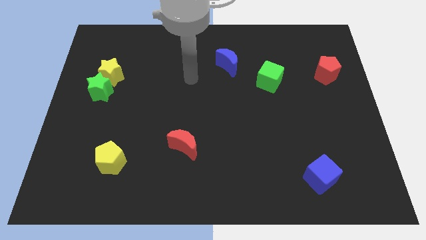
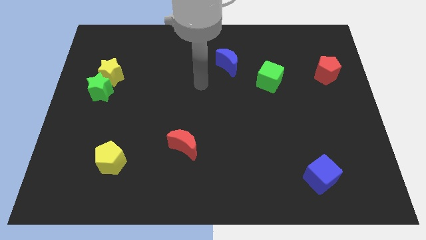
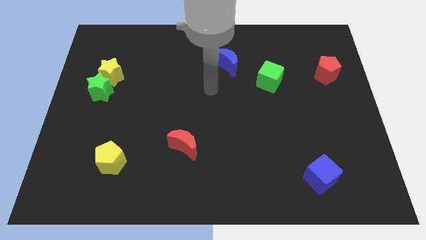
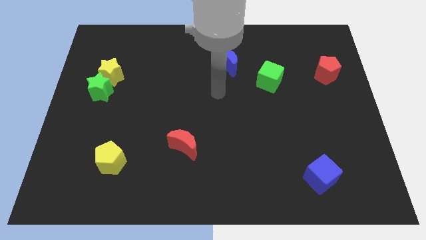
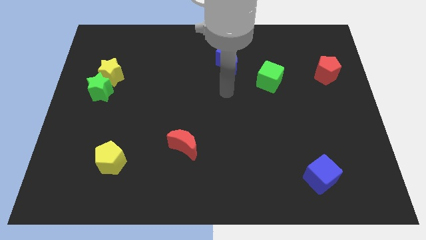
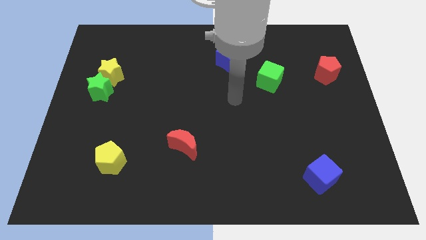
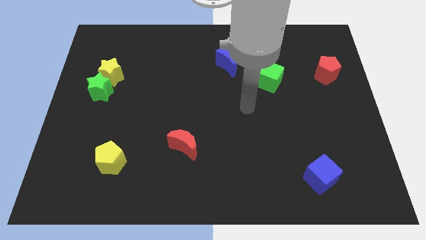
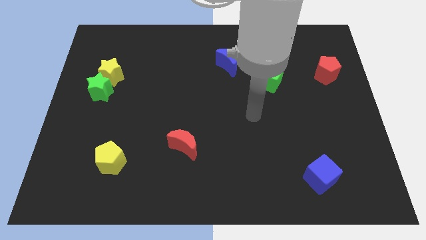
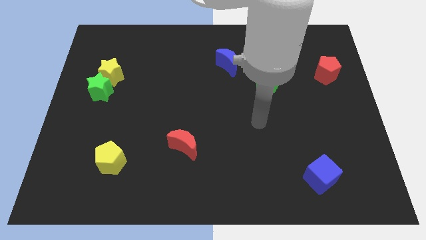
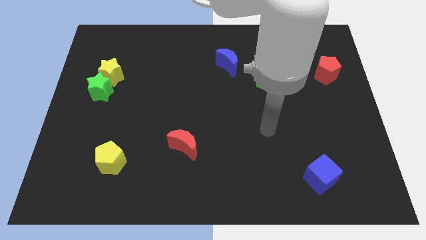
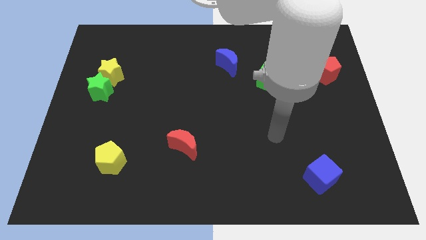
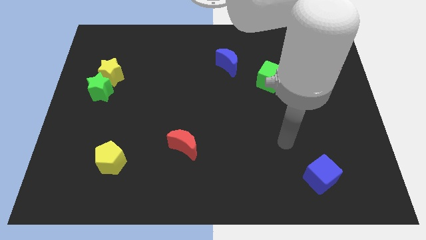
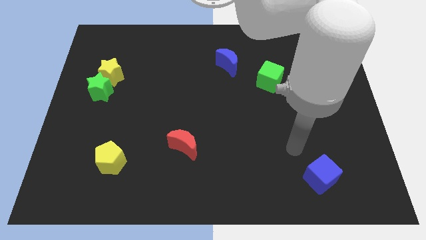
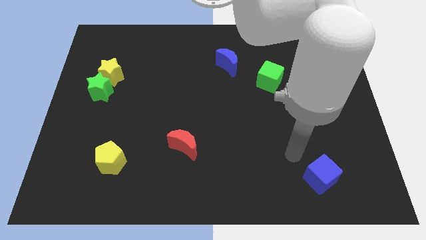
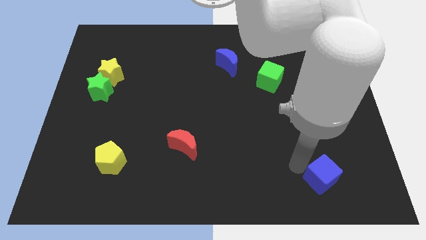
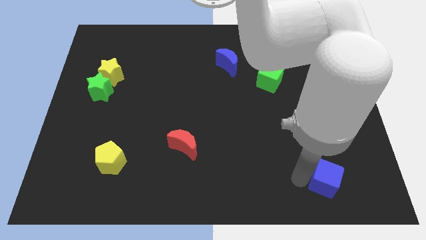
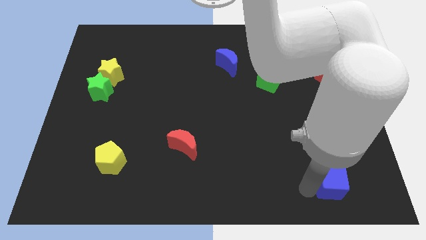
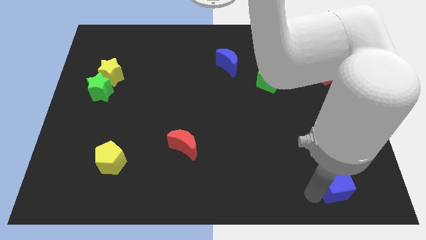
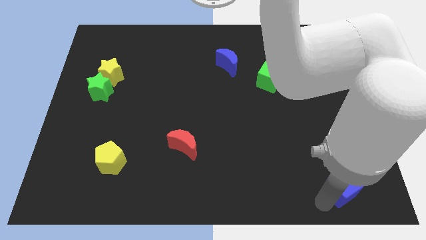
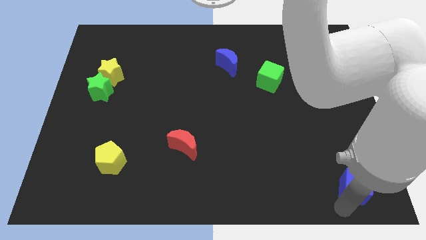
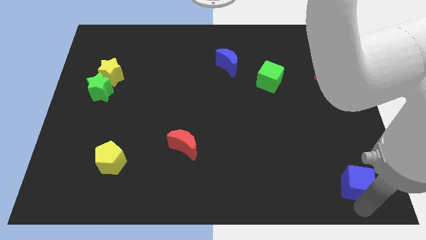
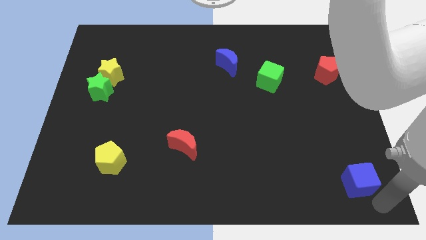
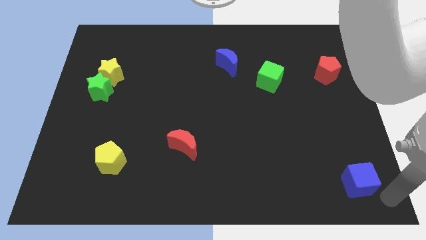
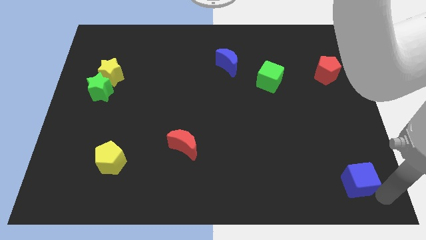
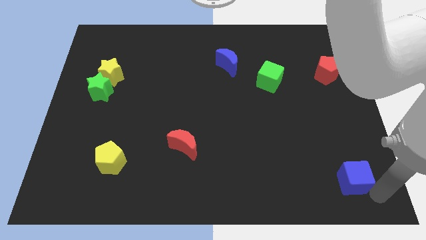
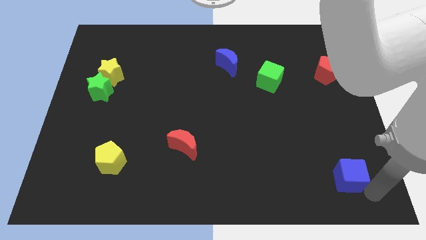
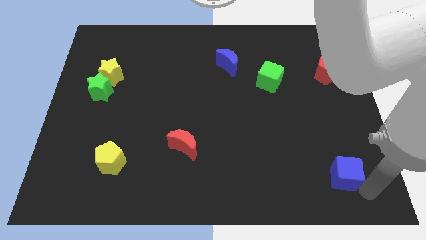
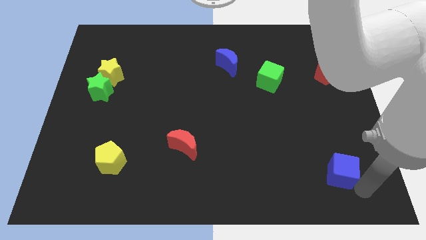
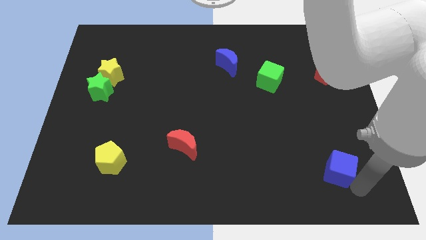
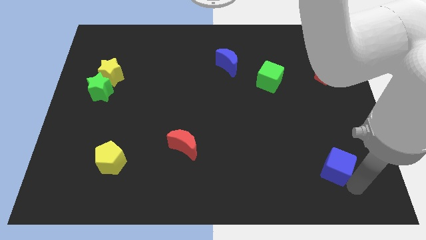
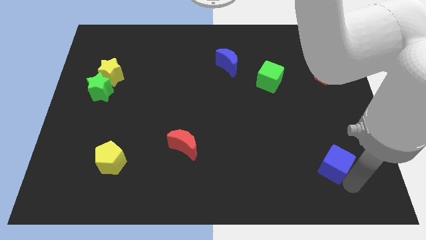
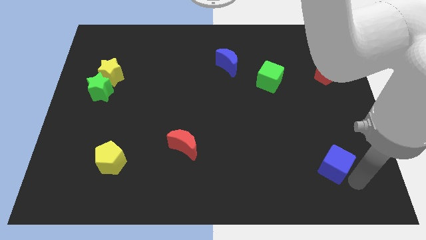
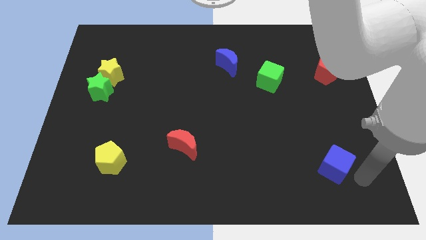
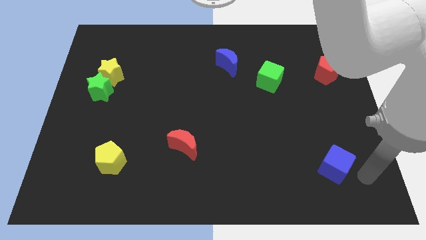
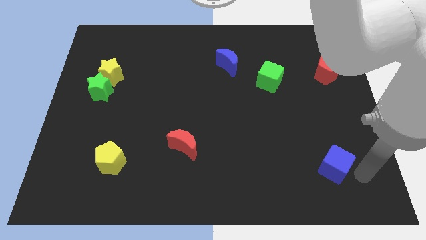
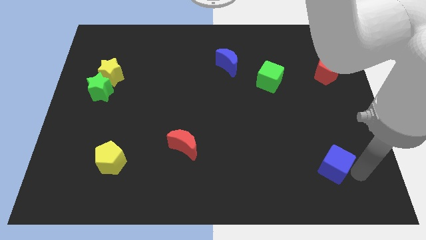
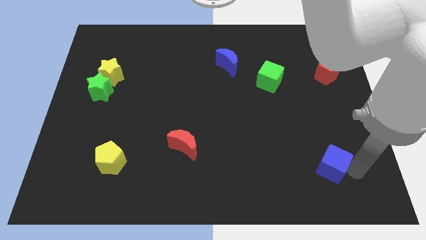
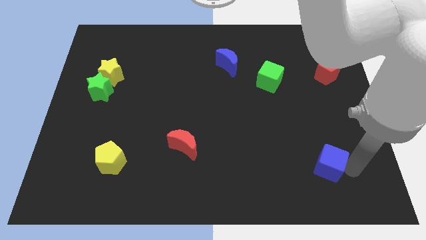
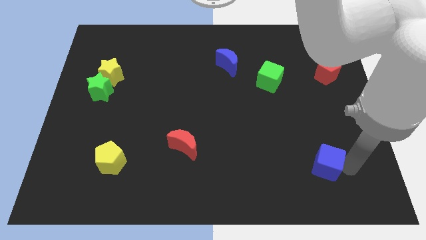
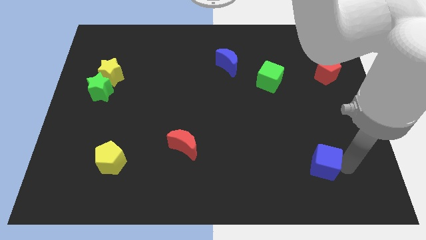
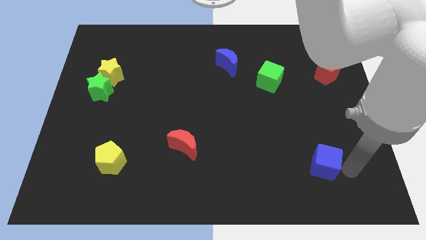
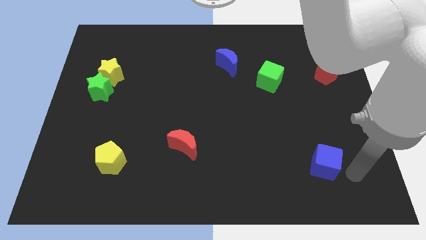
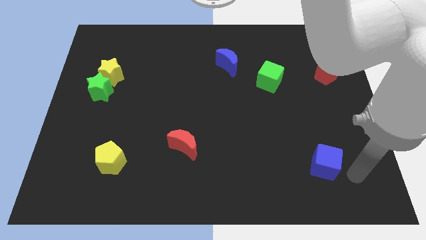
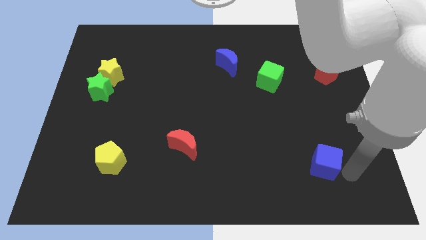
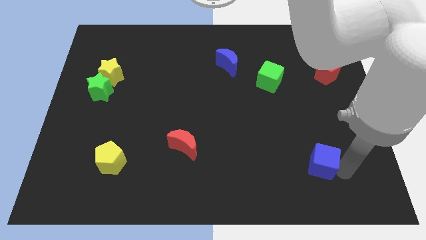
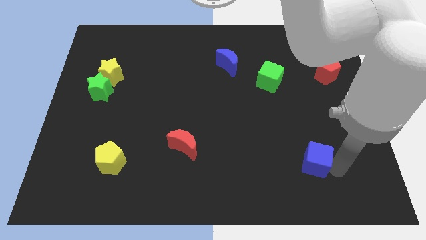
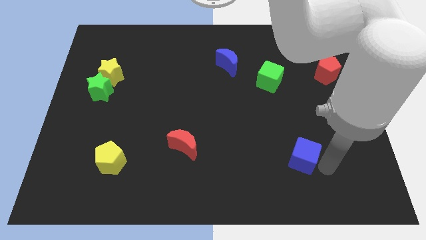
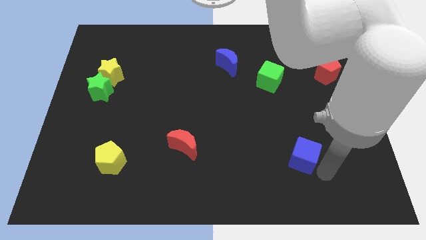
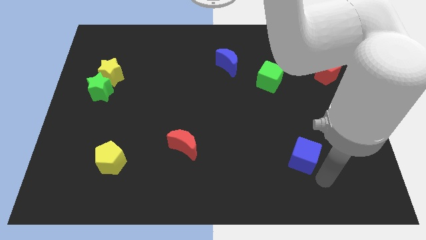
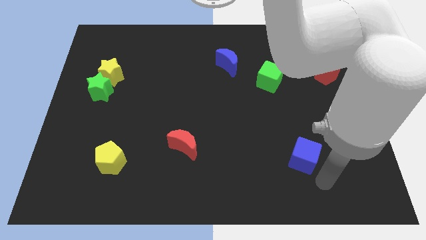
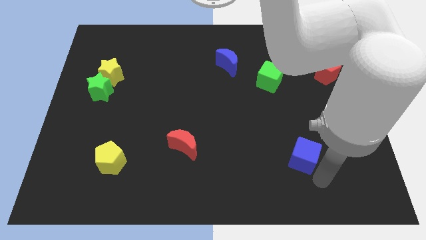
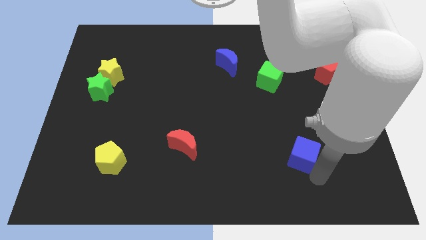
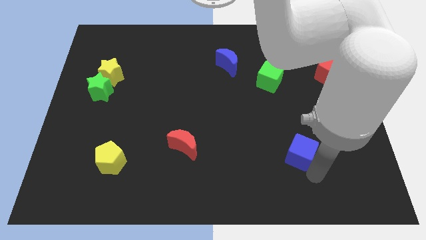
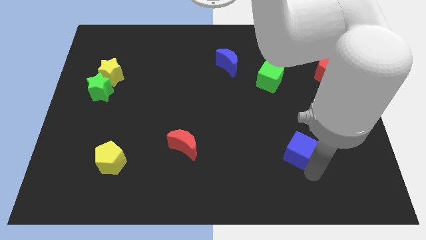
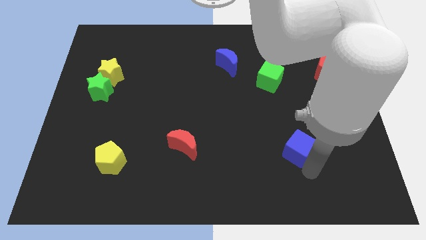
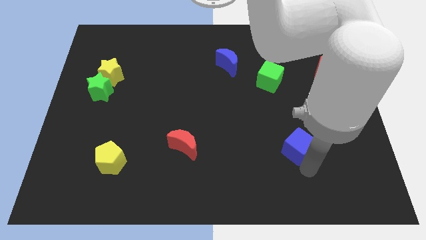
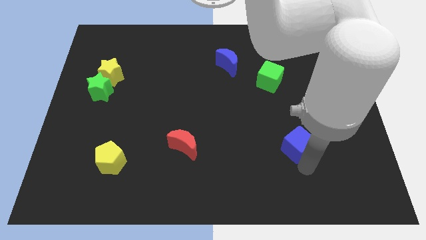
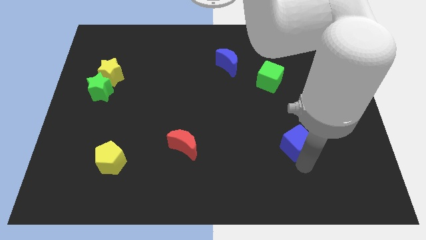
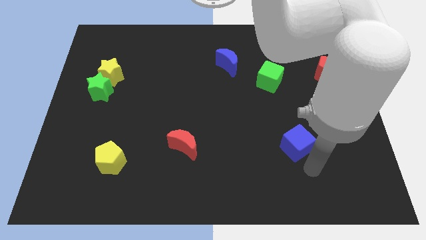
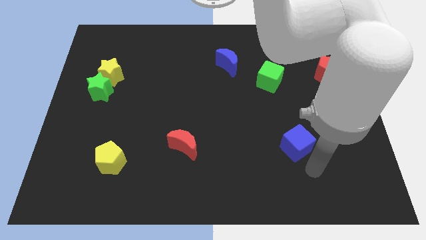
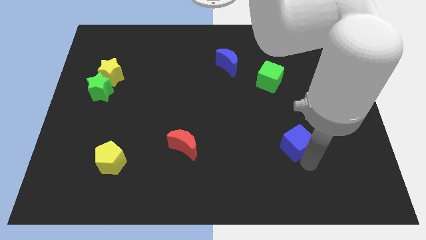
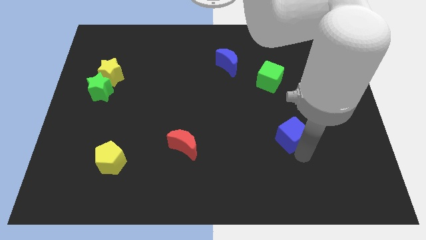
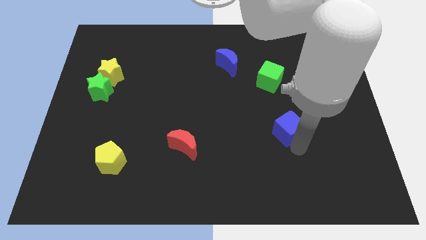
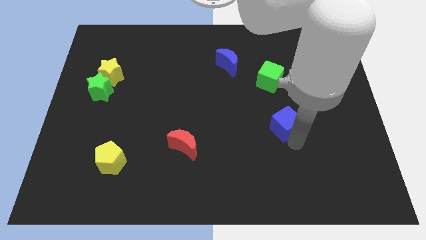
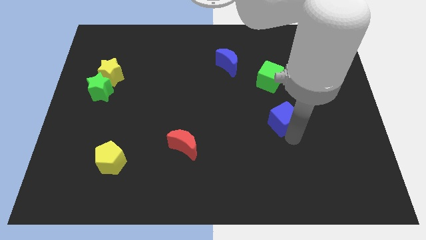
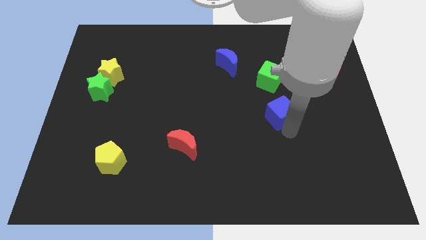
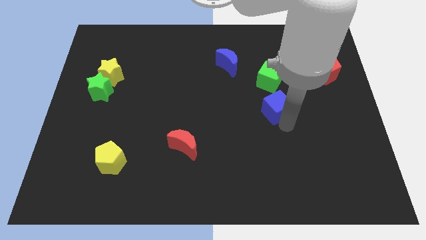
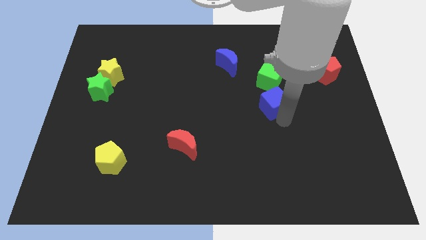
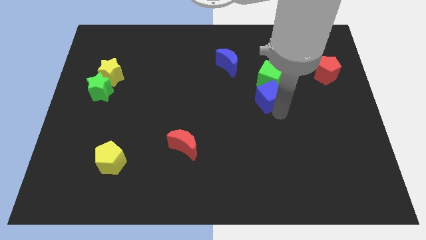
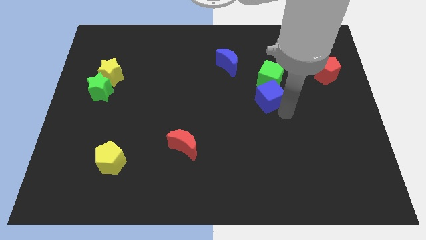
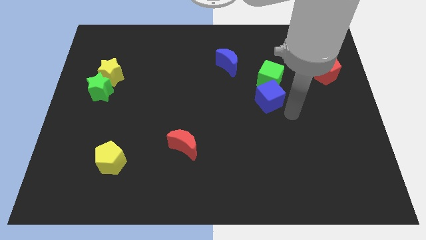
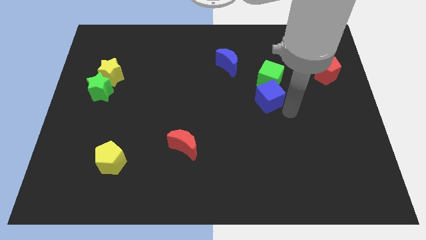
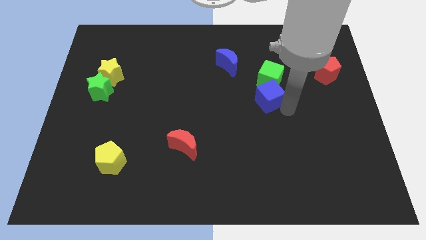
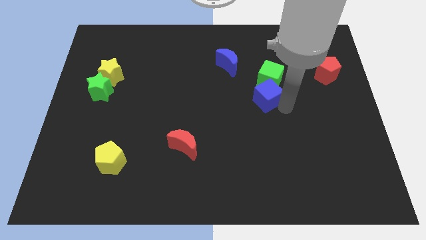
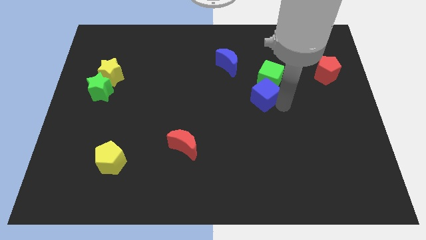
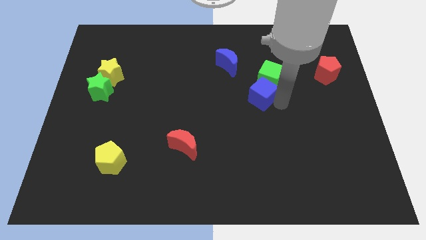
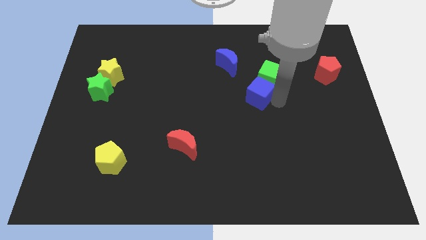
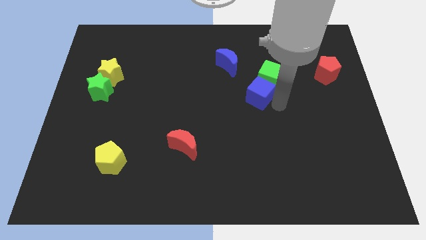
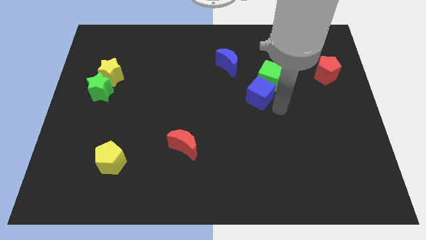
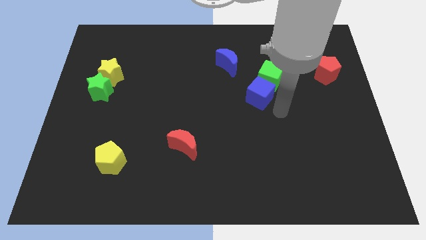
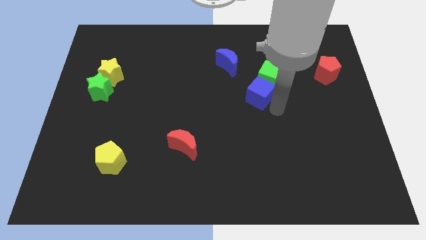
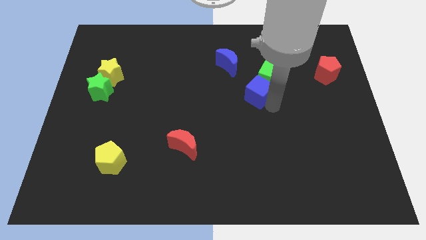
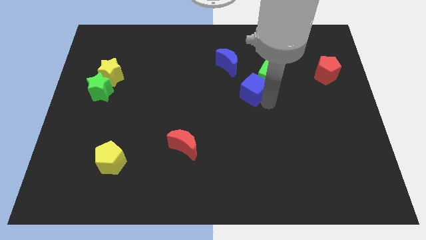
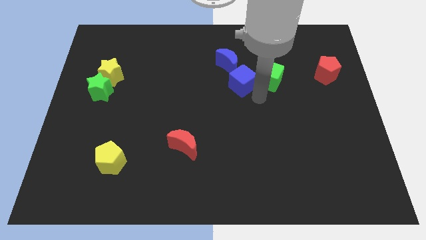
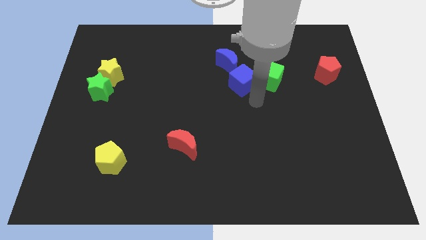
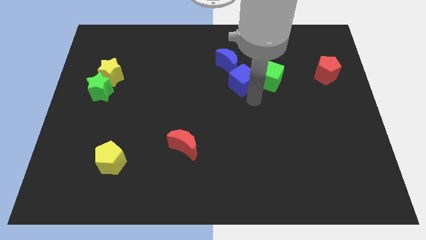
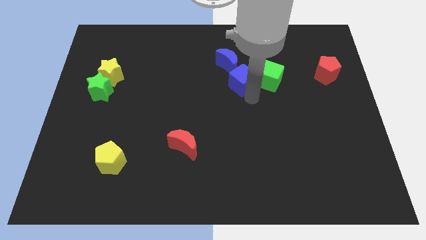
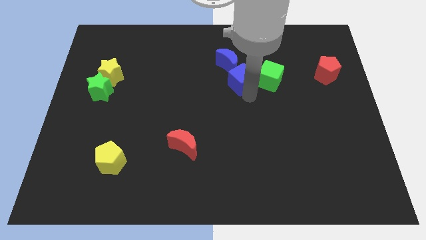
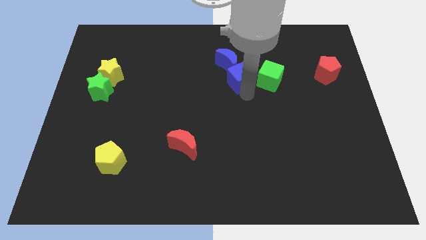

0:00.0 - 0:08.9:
move the blue cube next to the blue moon
